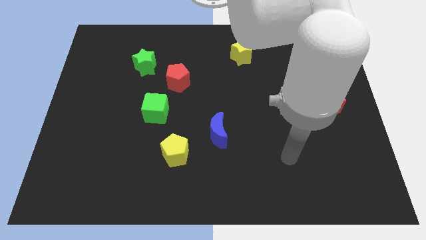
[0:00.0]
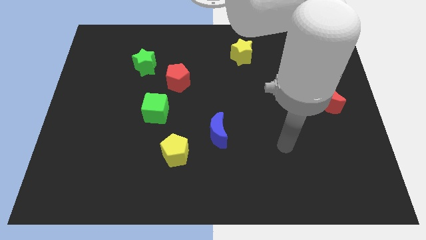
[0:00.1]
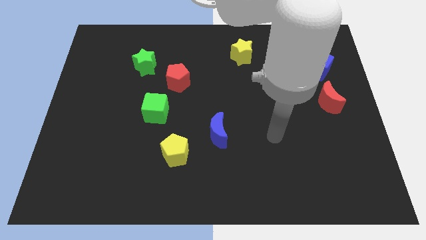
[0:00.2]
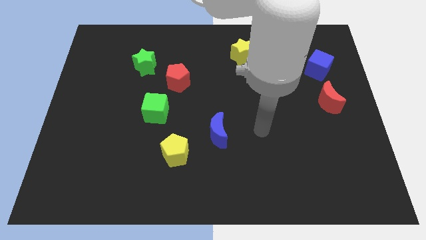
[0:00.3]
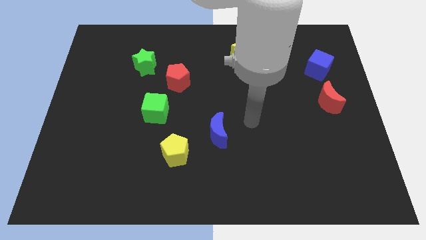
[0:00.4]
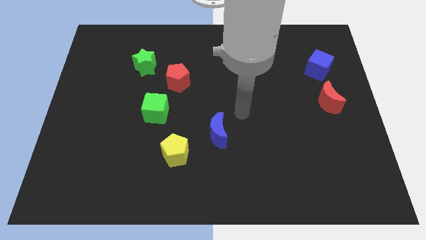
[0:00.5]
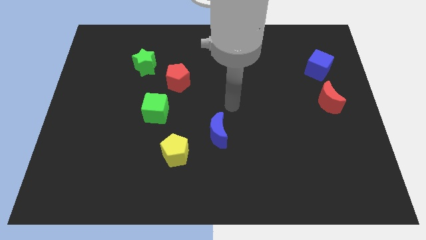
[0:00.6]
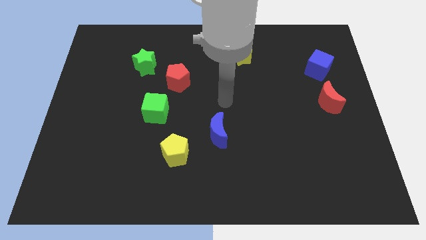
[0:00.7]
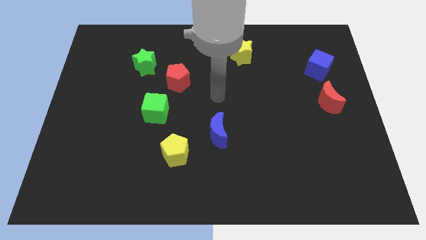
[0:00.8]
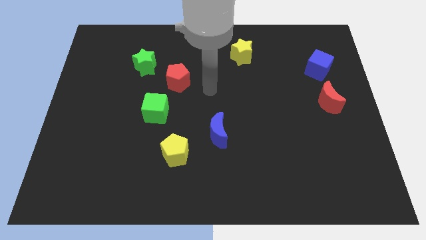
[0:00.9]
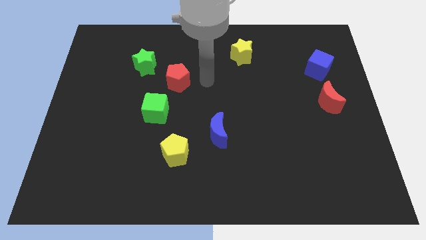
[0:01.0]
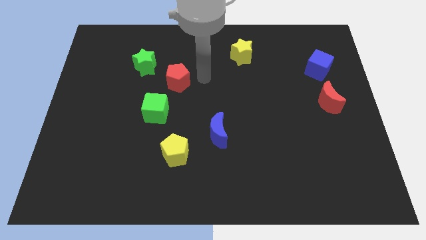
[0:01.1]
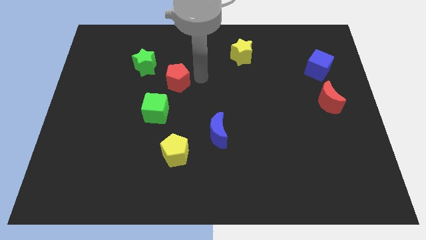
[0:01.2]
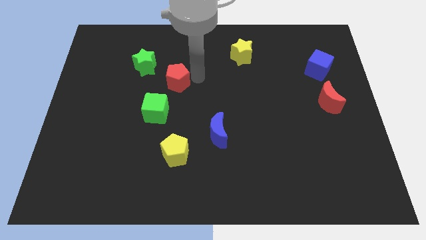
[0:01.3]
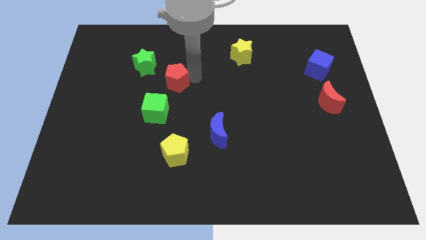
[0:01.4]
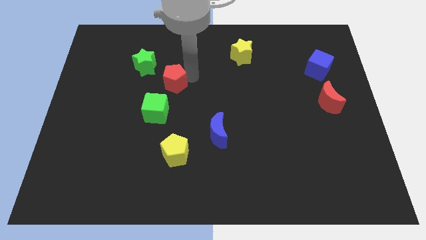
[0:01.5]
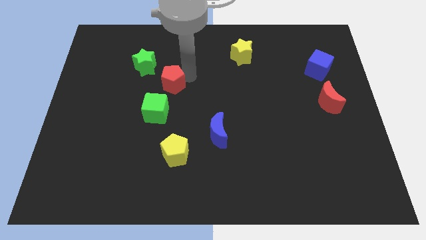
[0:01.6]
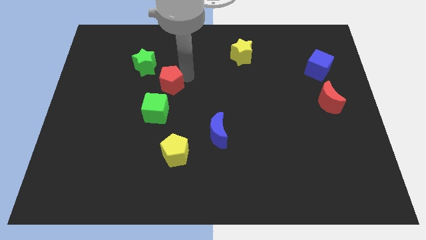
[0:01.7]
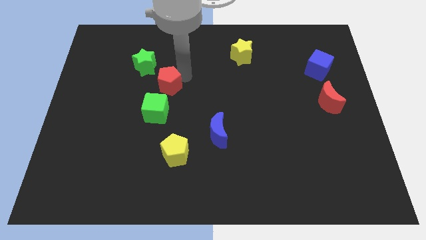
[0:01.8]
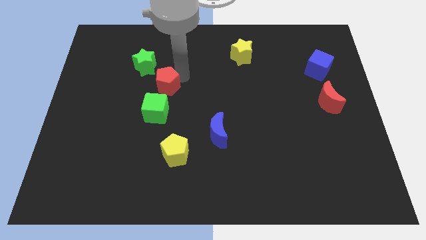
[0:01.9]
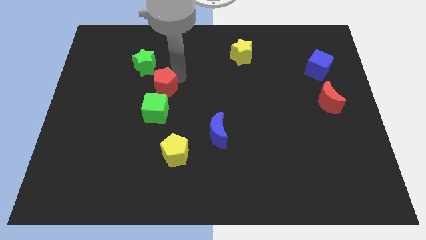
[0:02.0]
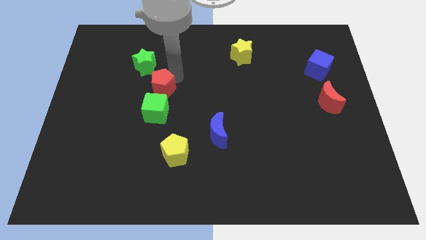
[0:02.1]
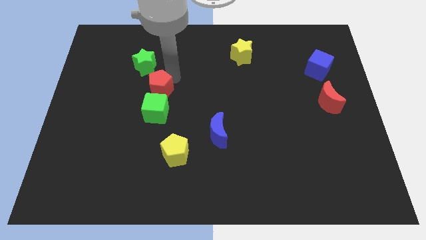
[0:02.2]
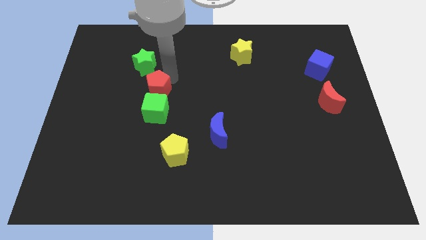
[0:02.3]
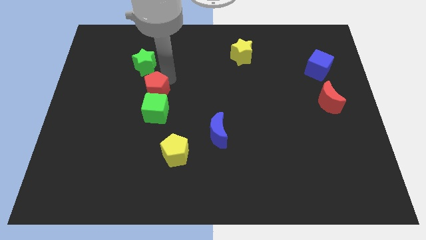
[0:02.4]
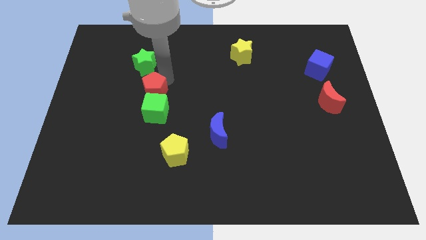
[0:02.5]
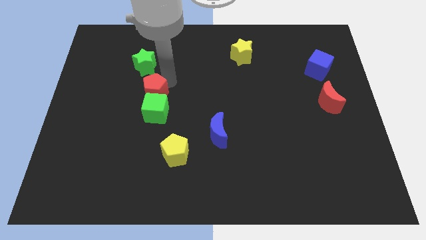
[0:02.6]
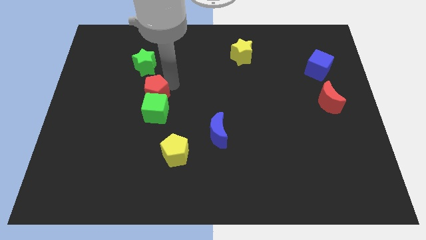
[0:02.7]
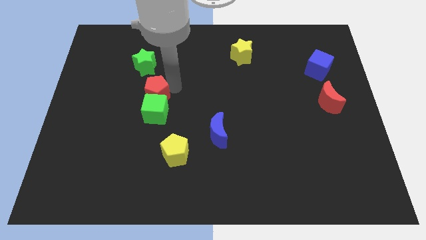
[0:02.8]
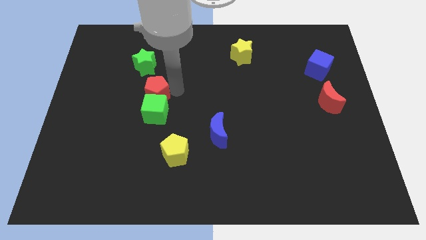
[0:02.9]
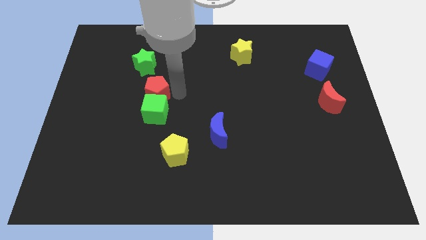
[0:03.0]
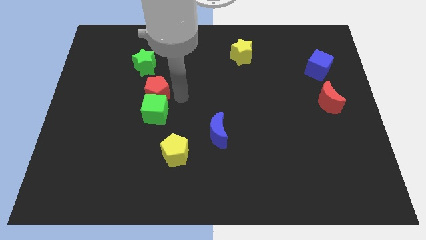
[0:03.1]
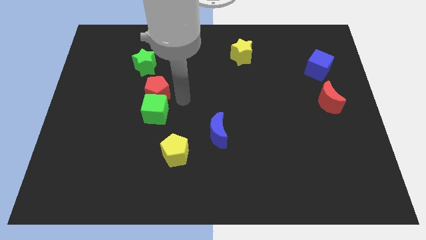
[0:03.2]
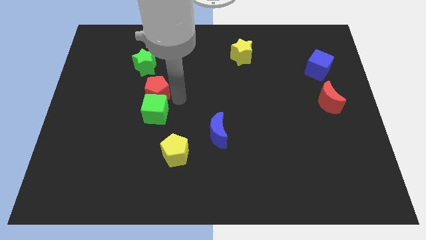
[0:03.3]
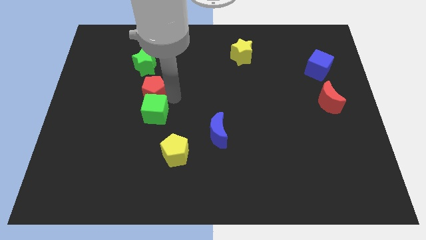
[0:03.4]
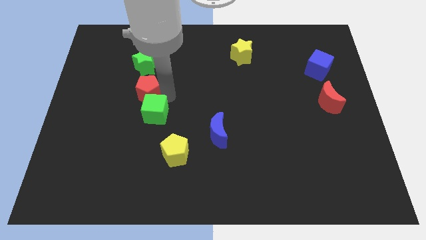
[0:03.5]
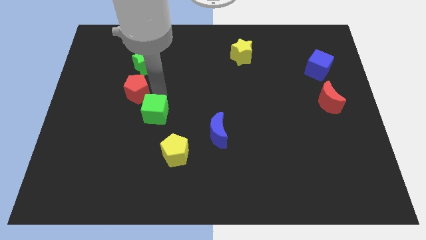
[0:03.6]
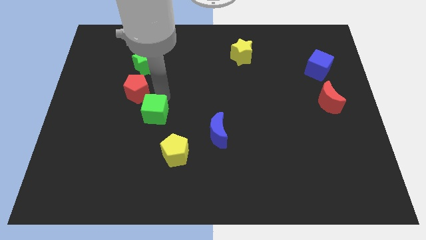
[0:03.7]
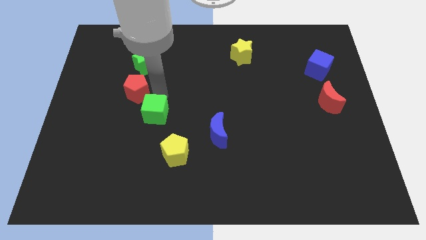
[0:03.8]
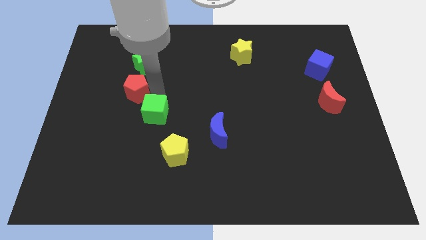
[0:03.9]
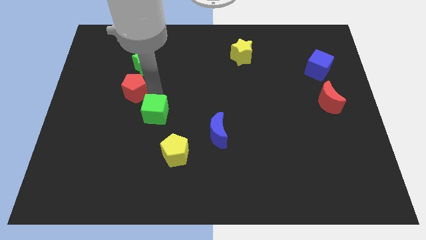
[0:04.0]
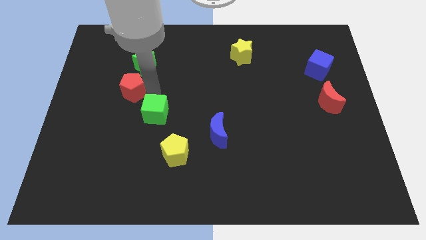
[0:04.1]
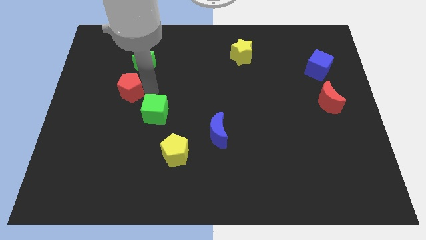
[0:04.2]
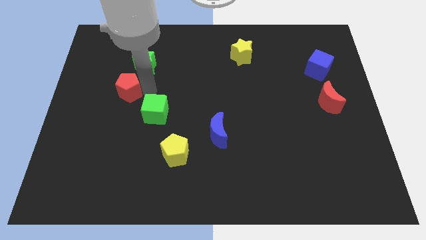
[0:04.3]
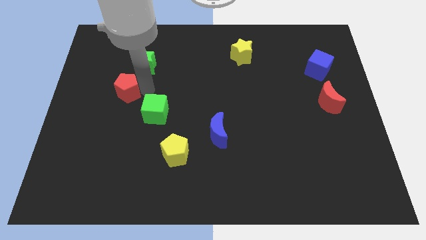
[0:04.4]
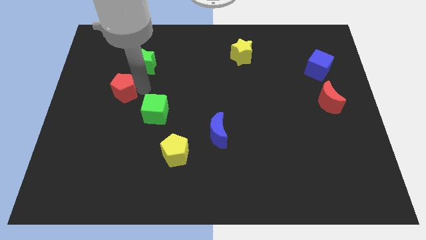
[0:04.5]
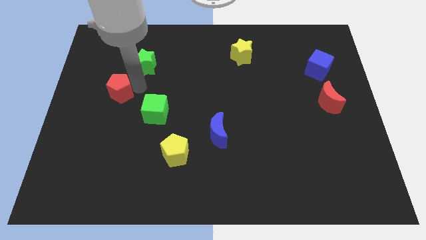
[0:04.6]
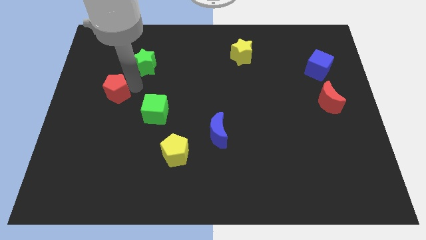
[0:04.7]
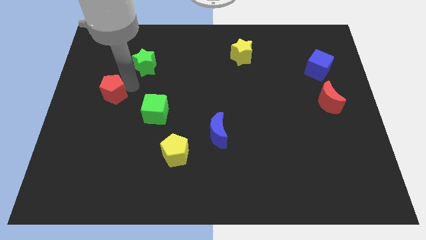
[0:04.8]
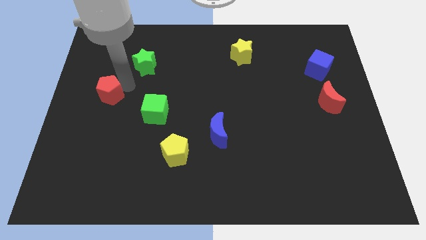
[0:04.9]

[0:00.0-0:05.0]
move the red pentagon to the left side

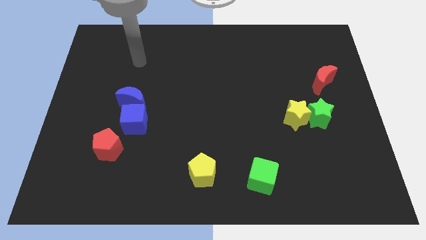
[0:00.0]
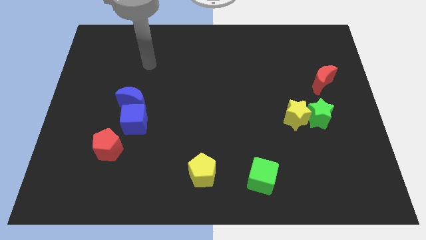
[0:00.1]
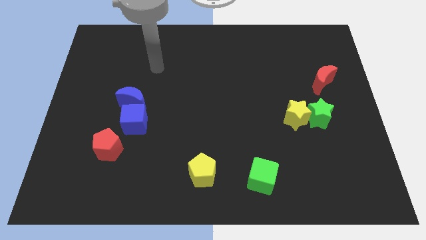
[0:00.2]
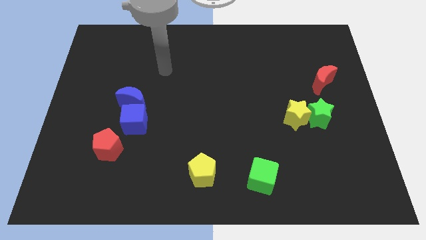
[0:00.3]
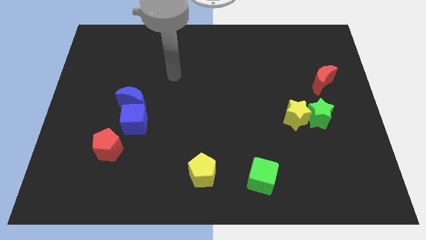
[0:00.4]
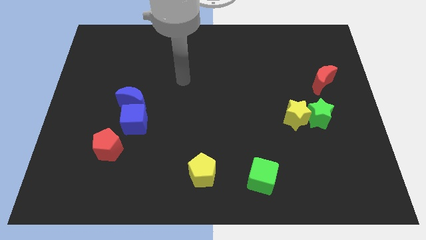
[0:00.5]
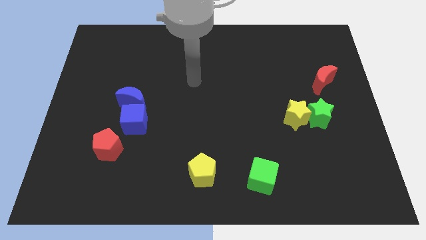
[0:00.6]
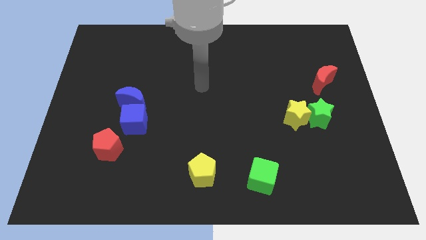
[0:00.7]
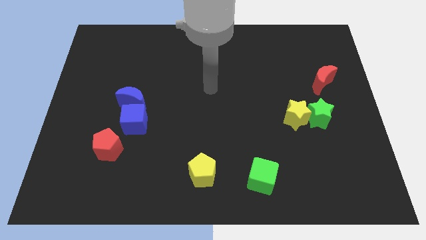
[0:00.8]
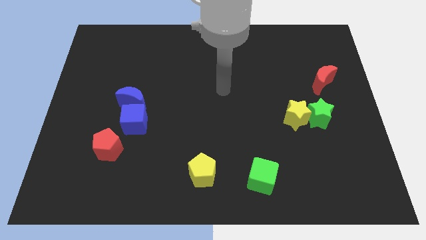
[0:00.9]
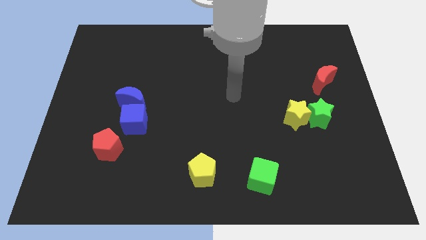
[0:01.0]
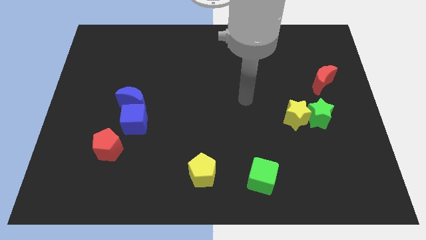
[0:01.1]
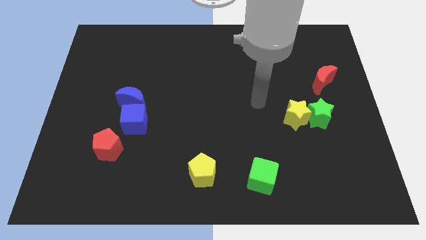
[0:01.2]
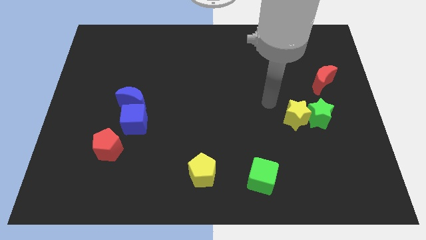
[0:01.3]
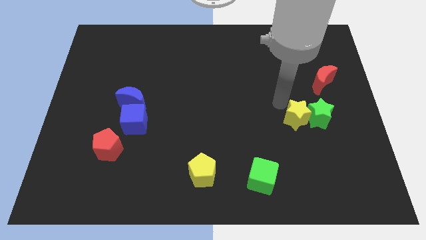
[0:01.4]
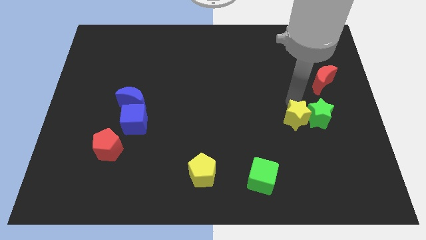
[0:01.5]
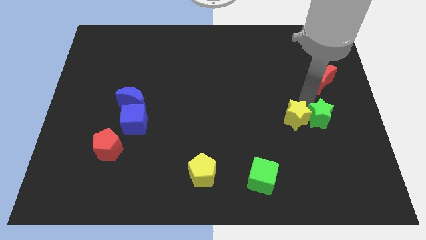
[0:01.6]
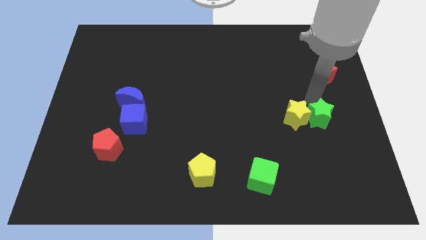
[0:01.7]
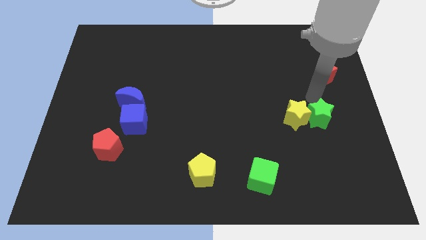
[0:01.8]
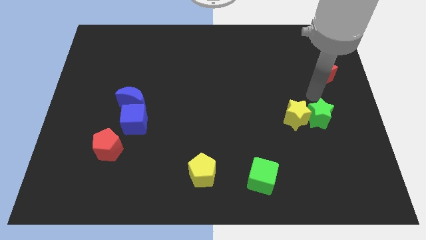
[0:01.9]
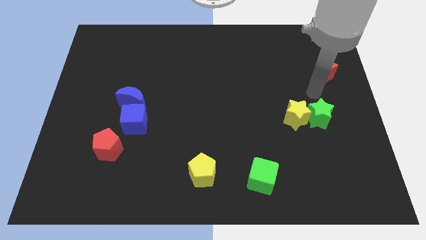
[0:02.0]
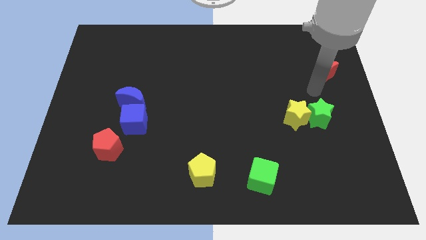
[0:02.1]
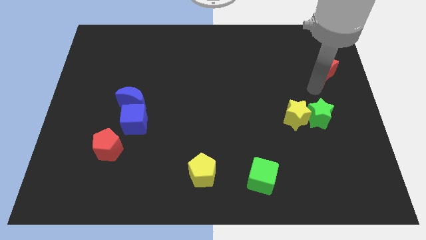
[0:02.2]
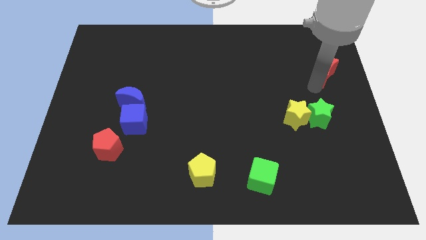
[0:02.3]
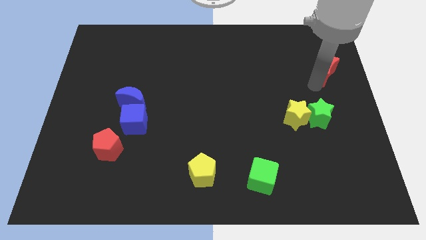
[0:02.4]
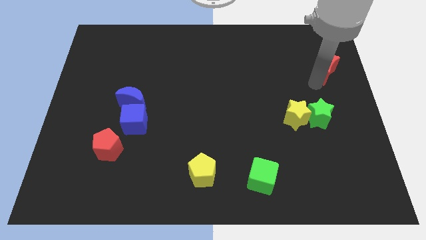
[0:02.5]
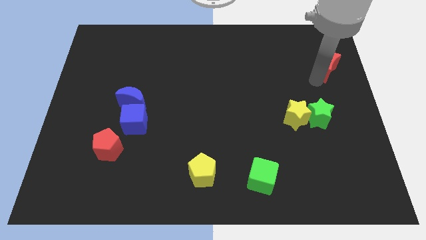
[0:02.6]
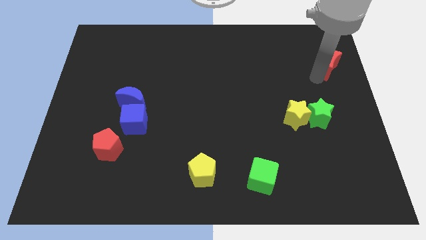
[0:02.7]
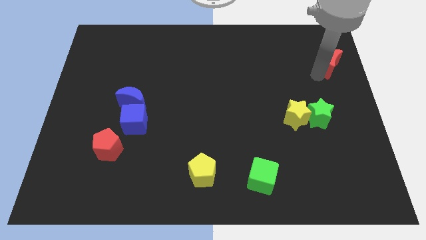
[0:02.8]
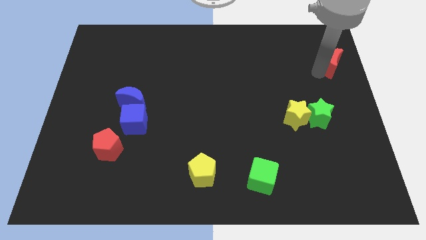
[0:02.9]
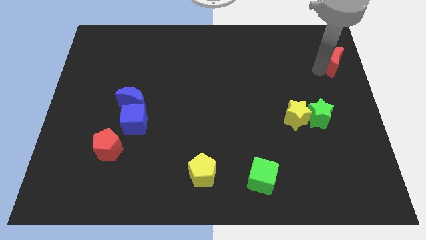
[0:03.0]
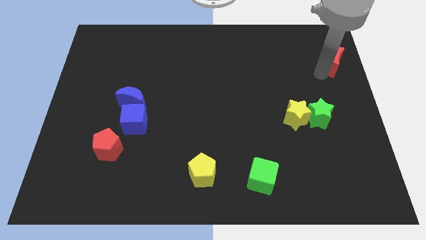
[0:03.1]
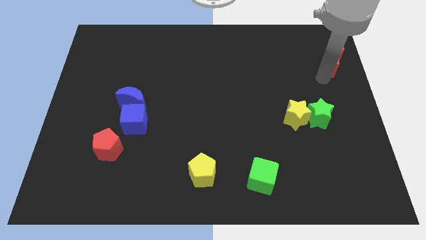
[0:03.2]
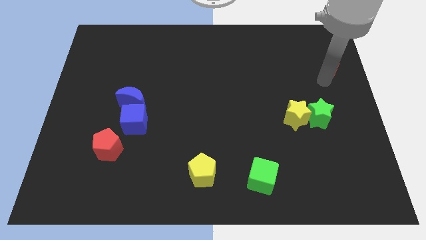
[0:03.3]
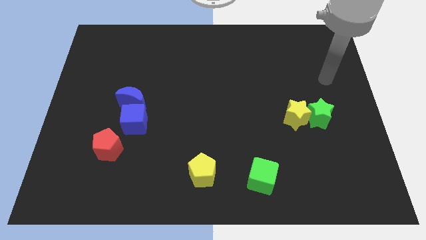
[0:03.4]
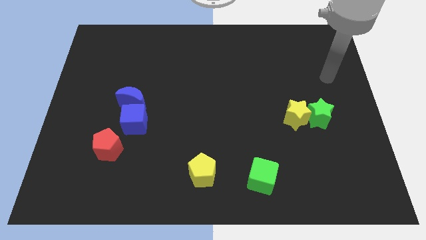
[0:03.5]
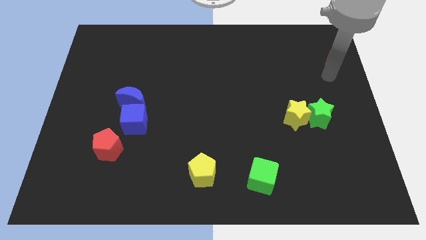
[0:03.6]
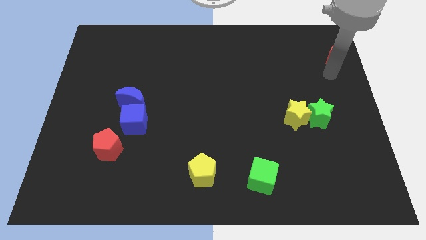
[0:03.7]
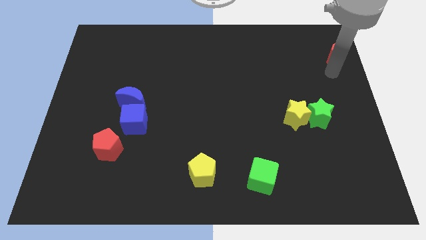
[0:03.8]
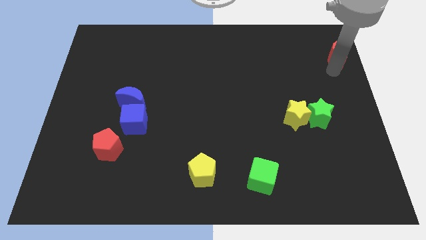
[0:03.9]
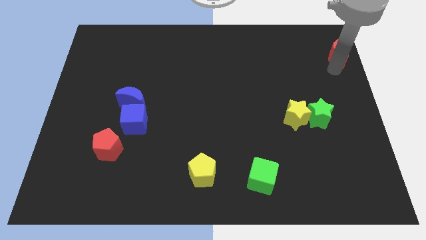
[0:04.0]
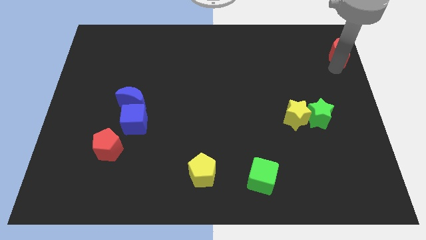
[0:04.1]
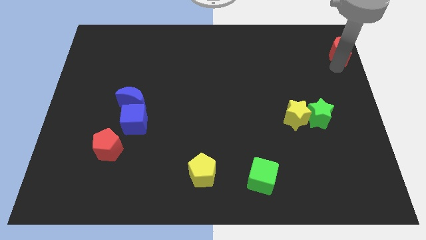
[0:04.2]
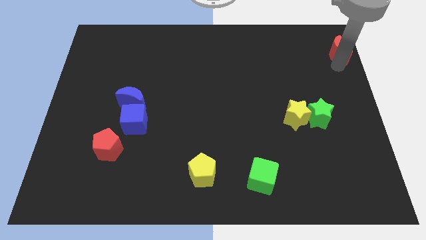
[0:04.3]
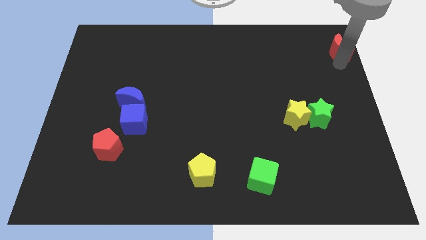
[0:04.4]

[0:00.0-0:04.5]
slide the red moon to the top right corner
